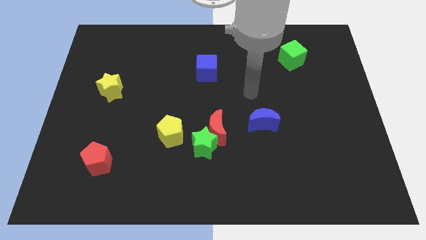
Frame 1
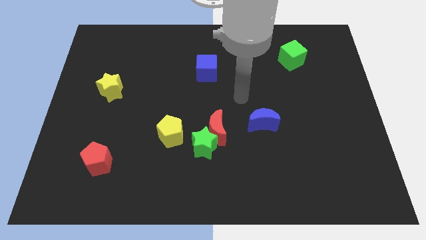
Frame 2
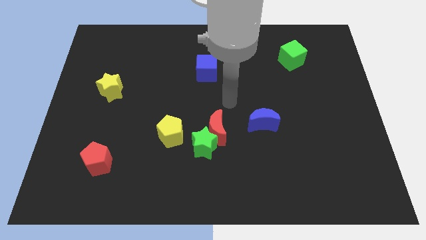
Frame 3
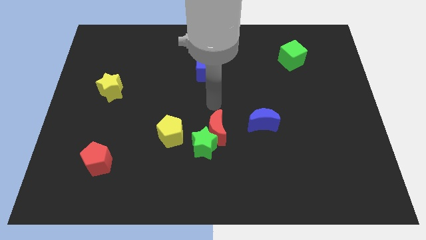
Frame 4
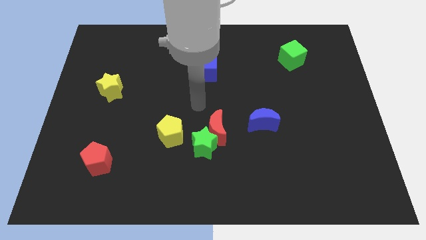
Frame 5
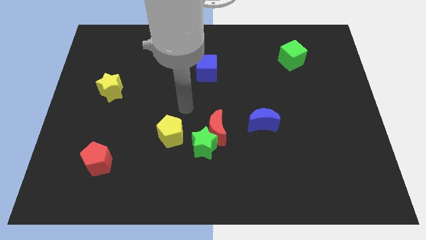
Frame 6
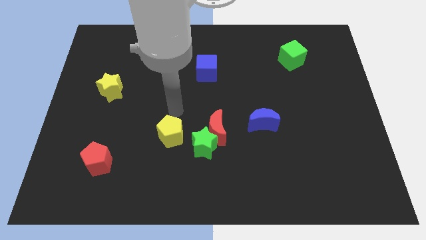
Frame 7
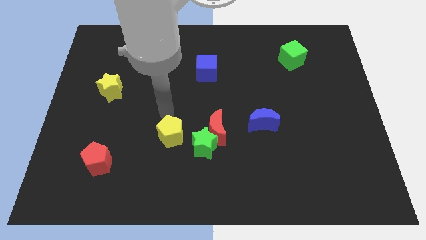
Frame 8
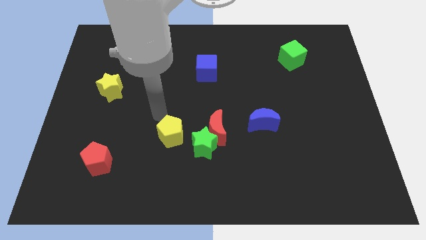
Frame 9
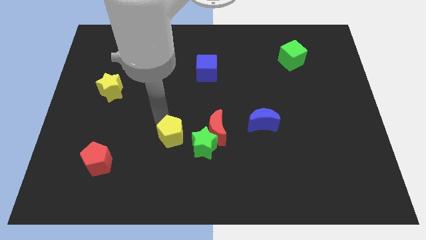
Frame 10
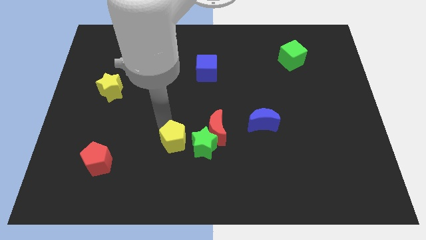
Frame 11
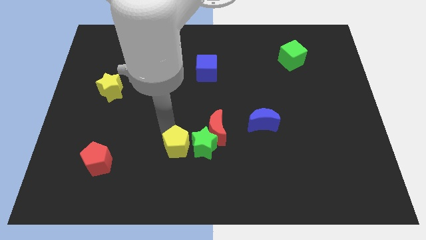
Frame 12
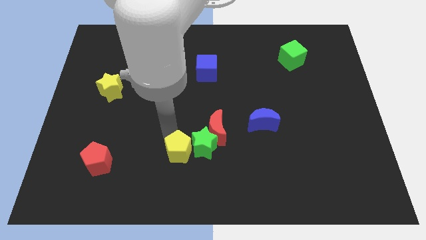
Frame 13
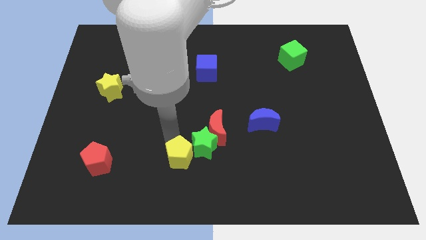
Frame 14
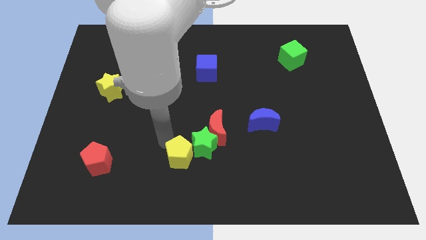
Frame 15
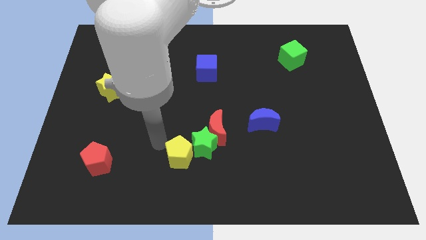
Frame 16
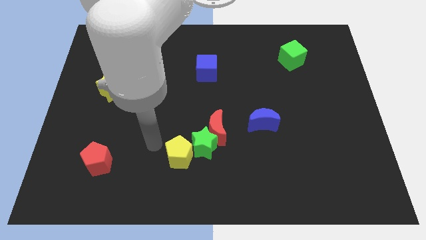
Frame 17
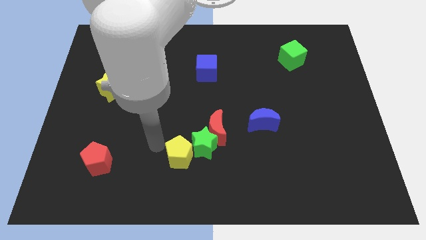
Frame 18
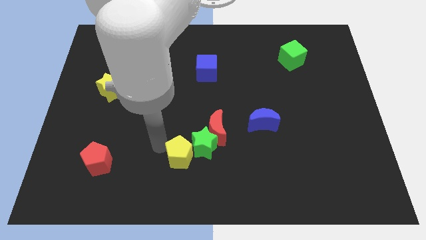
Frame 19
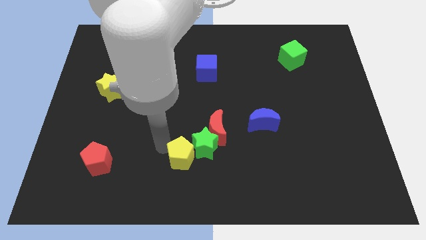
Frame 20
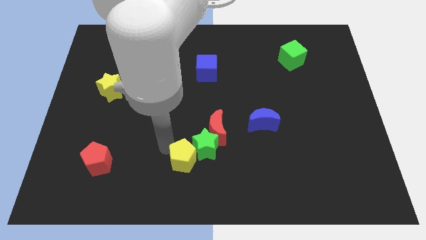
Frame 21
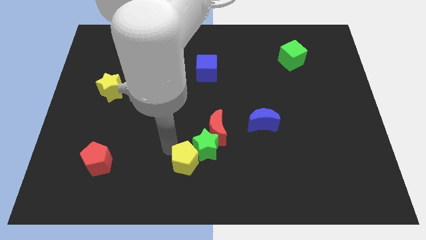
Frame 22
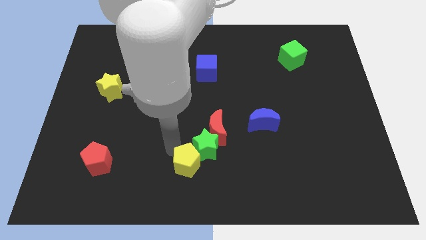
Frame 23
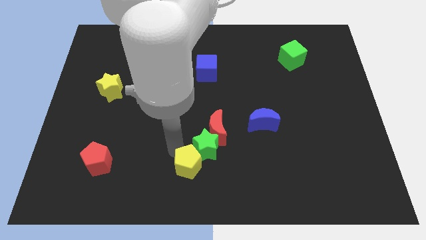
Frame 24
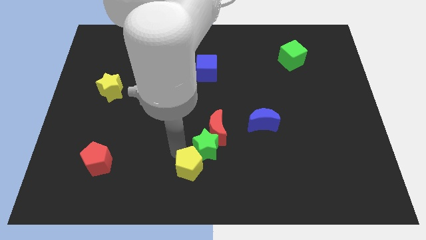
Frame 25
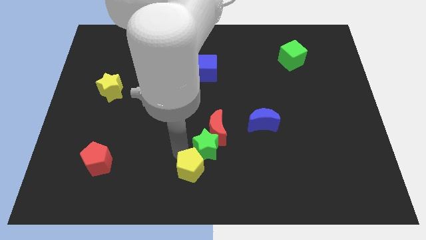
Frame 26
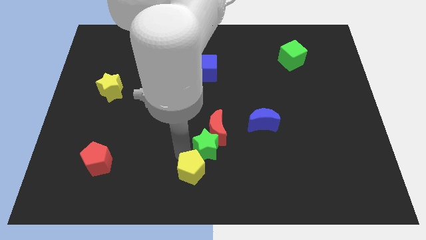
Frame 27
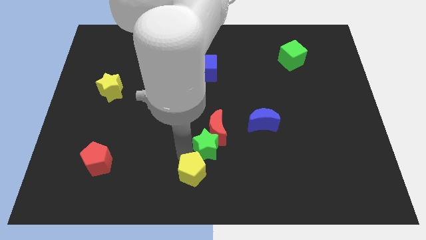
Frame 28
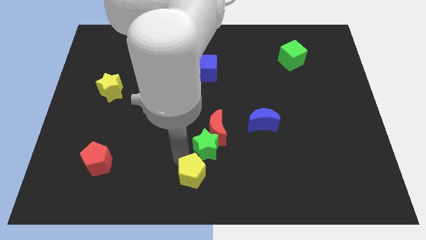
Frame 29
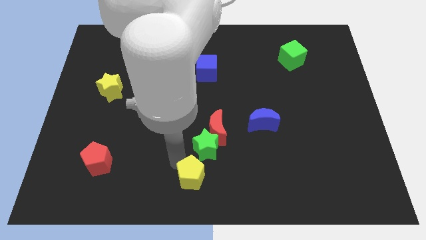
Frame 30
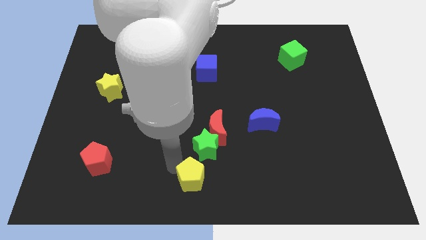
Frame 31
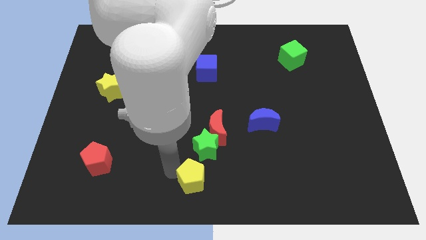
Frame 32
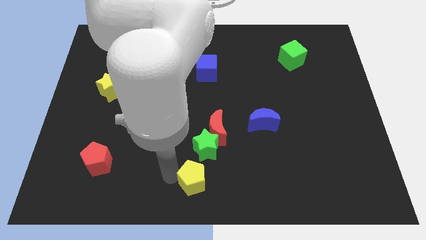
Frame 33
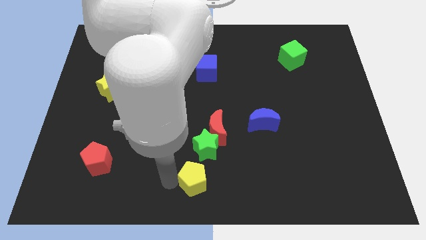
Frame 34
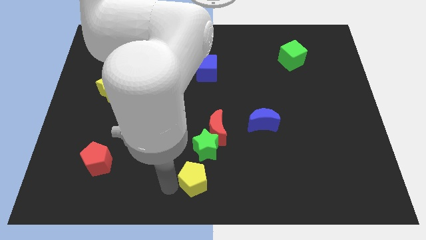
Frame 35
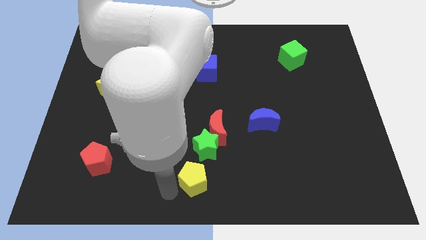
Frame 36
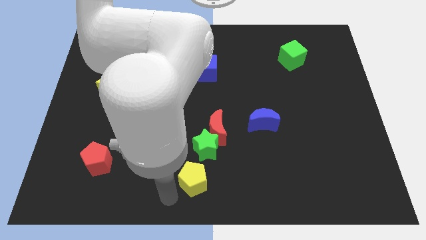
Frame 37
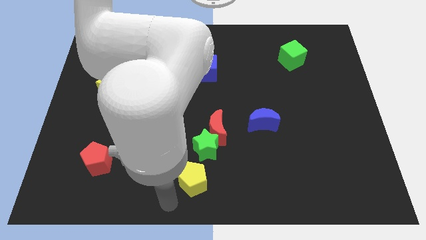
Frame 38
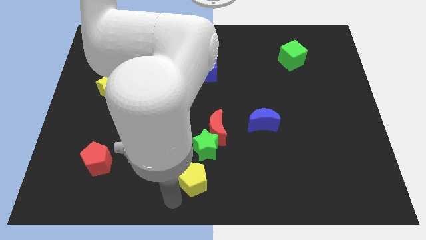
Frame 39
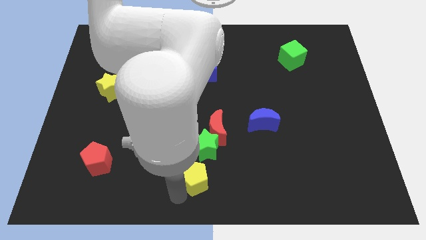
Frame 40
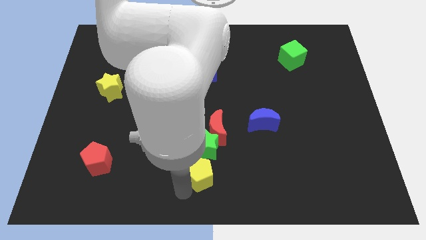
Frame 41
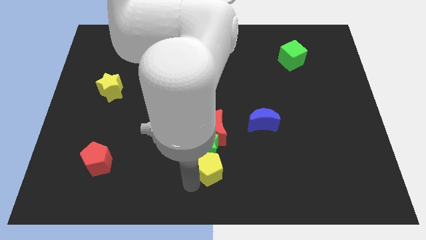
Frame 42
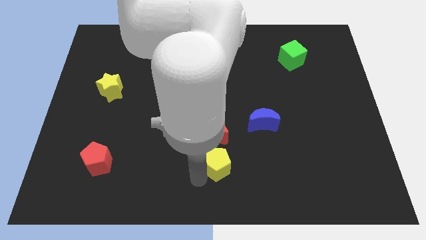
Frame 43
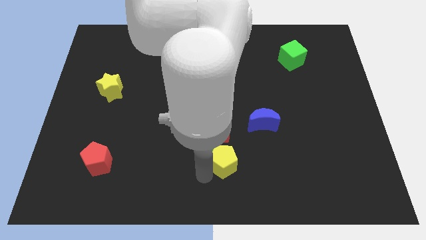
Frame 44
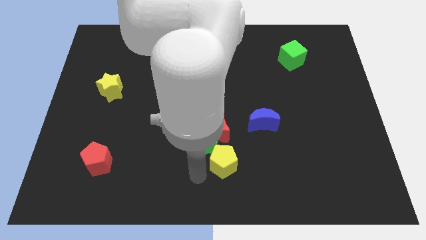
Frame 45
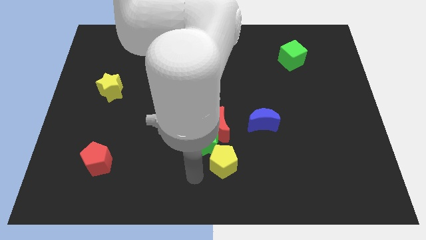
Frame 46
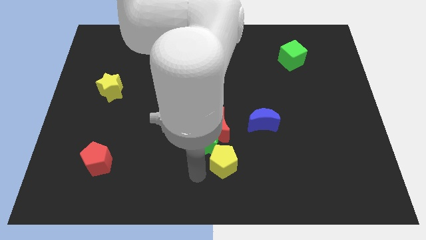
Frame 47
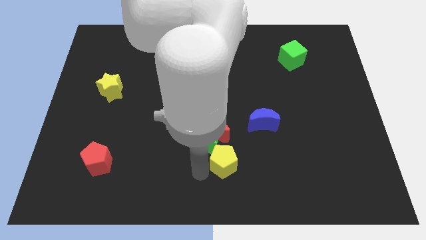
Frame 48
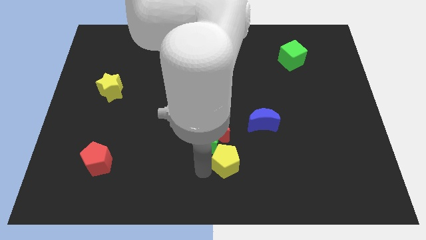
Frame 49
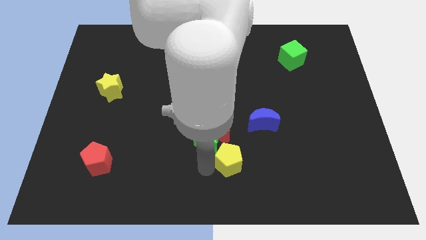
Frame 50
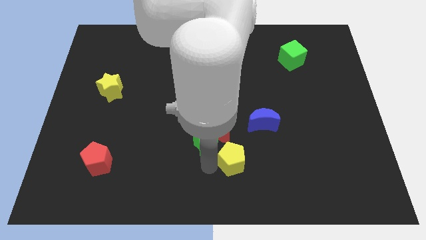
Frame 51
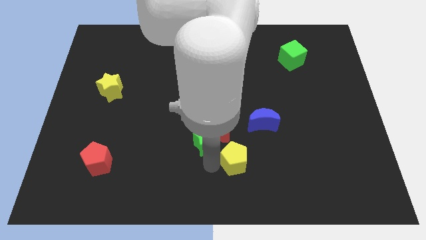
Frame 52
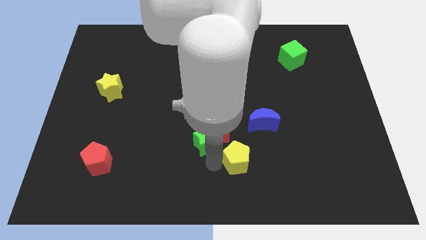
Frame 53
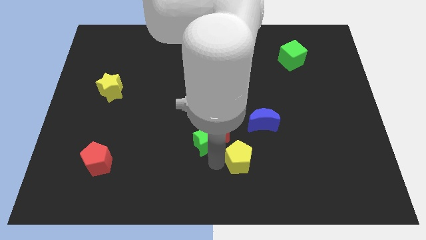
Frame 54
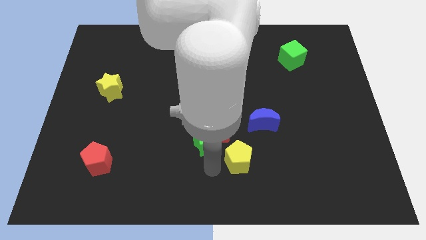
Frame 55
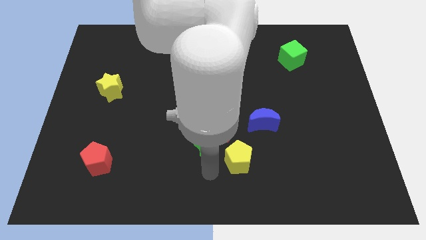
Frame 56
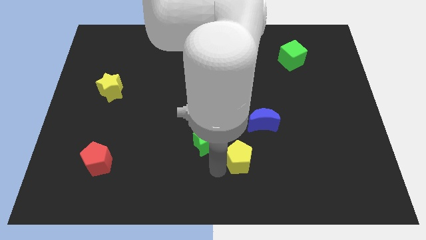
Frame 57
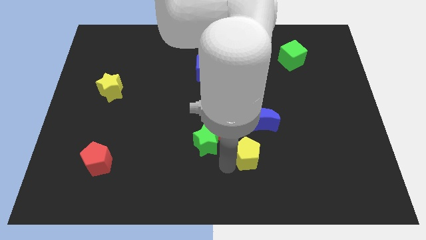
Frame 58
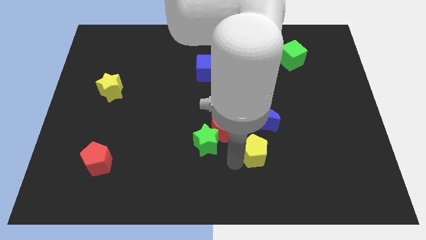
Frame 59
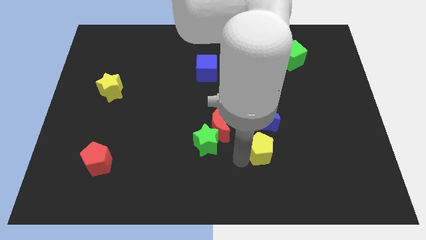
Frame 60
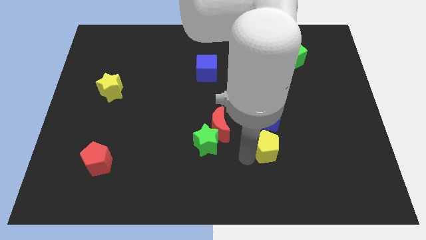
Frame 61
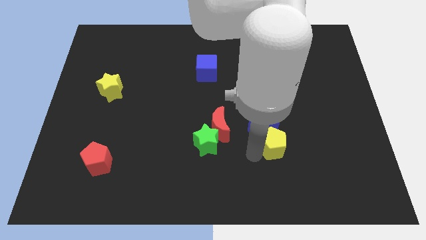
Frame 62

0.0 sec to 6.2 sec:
move the yellow pentagon to the bottom right side of the blue moon

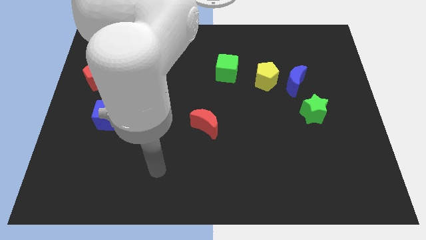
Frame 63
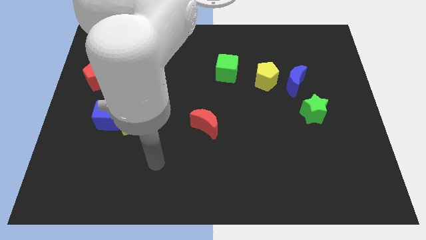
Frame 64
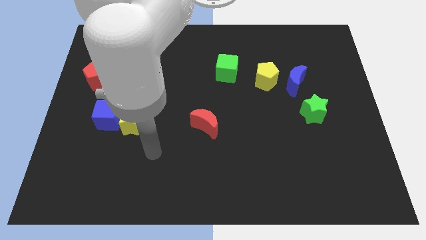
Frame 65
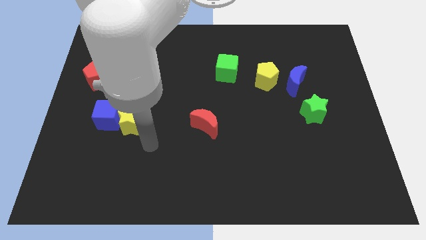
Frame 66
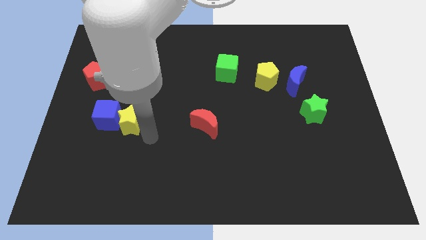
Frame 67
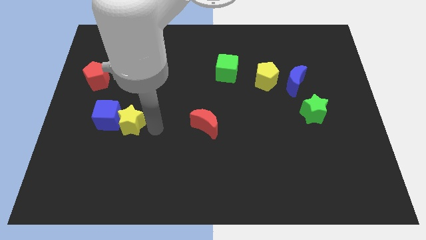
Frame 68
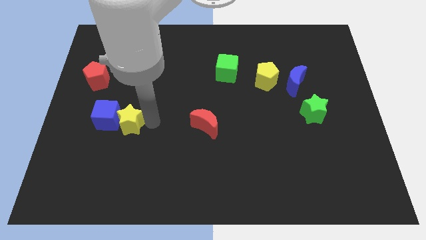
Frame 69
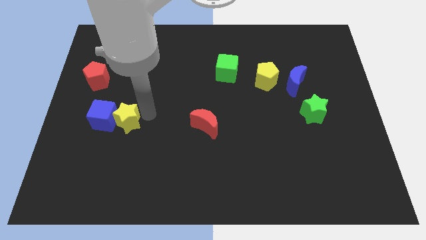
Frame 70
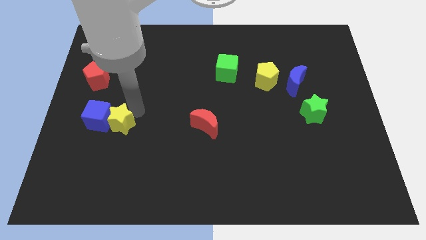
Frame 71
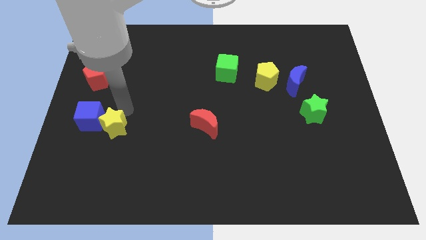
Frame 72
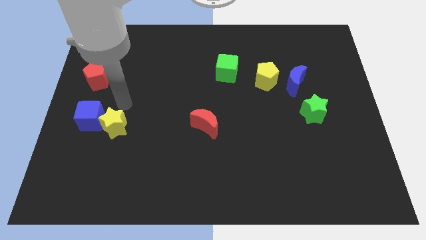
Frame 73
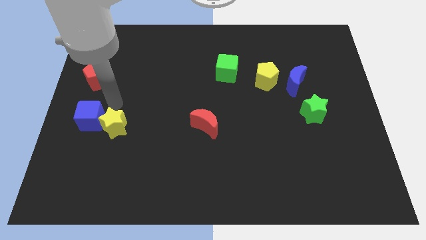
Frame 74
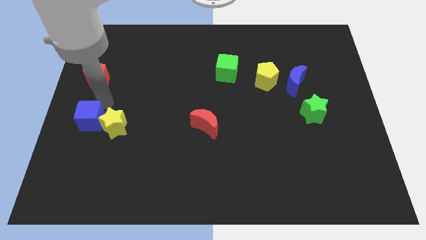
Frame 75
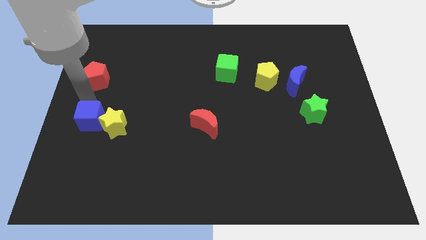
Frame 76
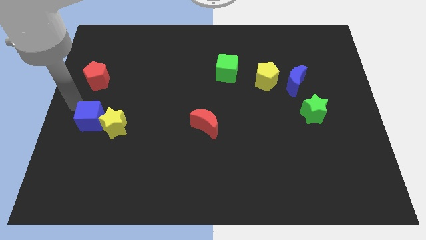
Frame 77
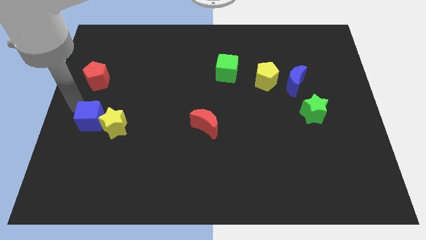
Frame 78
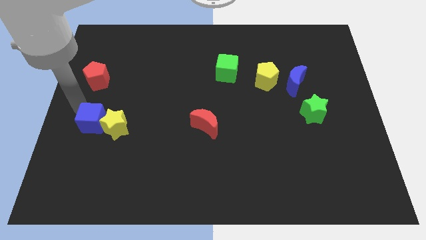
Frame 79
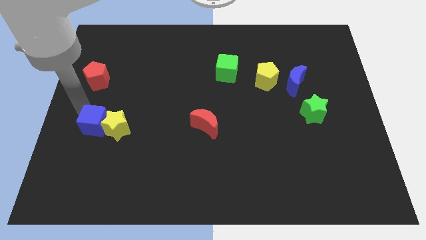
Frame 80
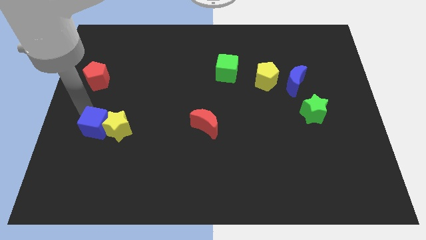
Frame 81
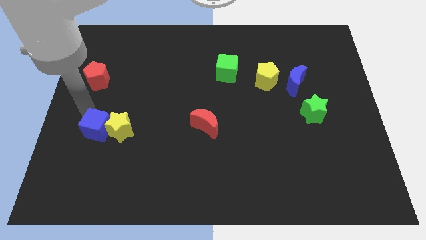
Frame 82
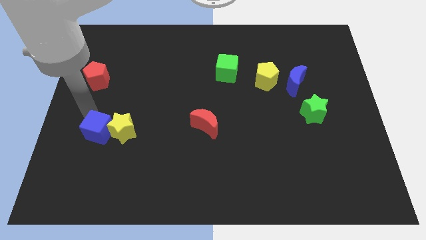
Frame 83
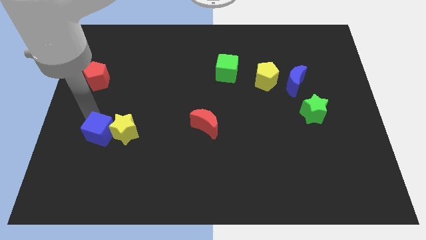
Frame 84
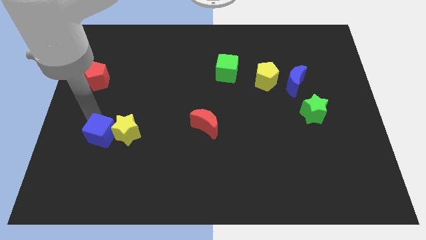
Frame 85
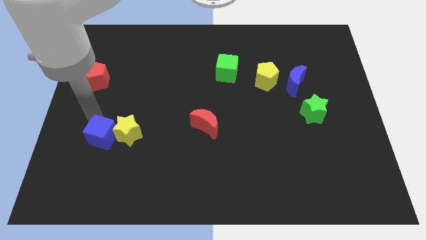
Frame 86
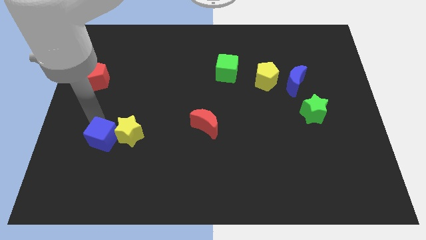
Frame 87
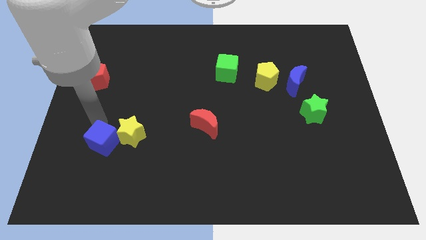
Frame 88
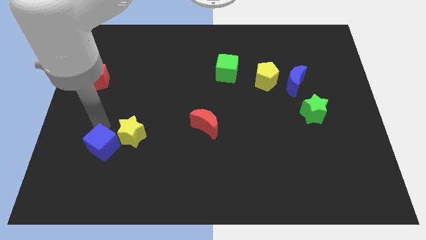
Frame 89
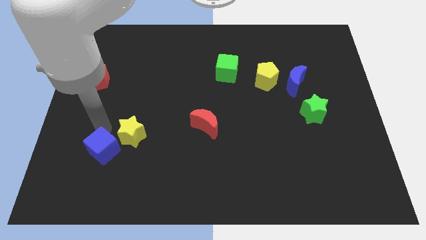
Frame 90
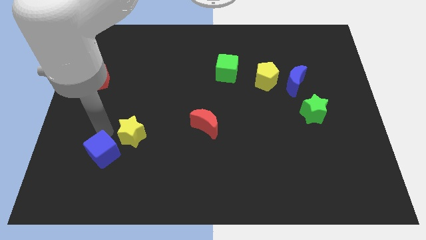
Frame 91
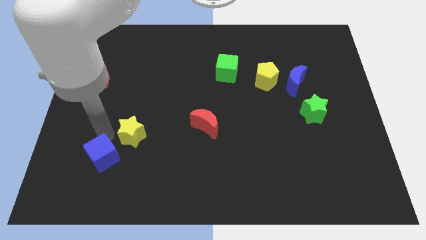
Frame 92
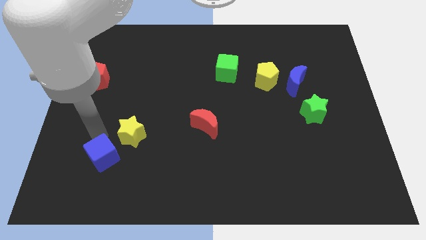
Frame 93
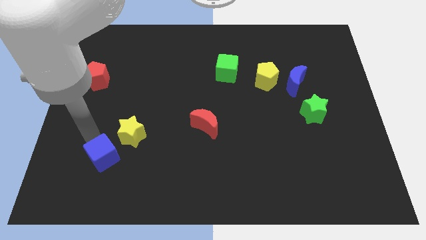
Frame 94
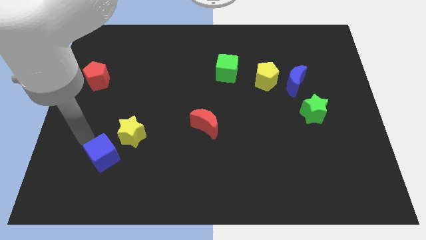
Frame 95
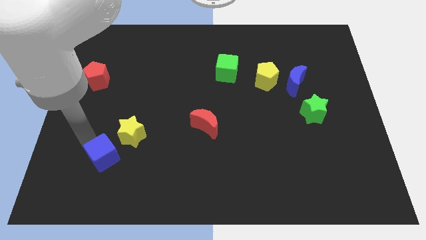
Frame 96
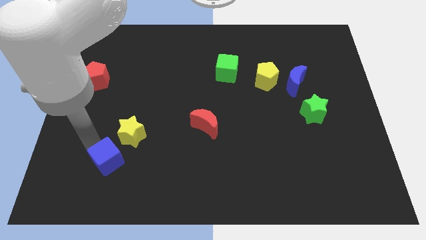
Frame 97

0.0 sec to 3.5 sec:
move the blue cube to the bottom of the yellow star
